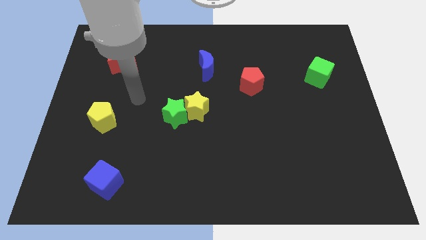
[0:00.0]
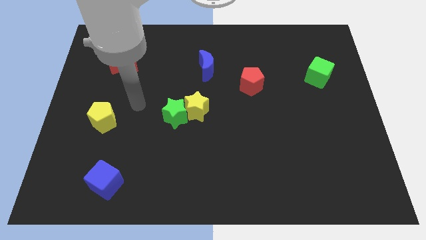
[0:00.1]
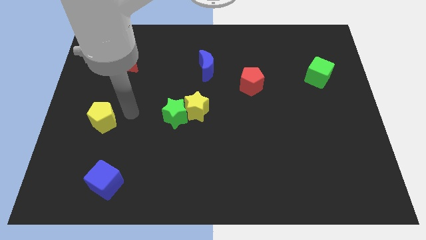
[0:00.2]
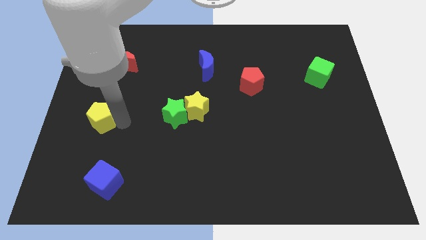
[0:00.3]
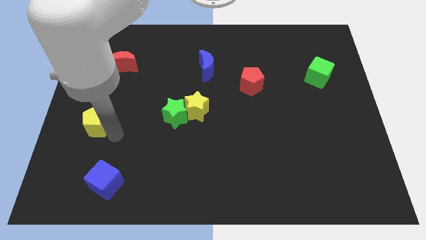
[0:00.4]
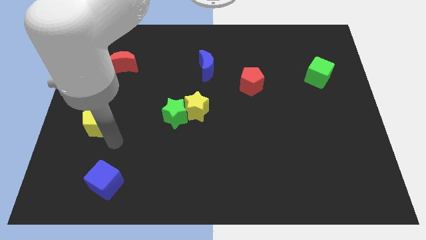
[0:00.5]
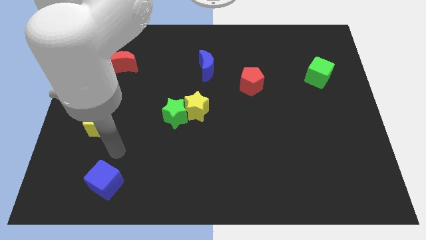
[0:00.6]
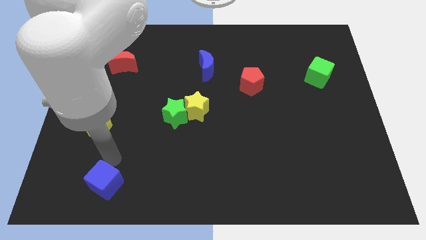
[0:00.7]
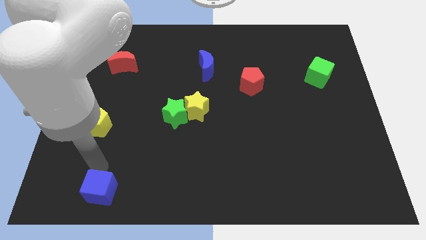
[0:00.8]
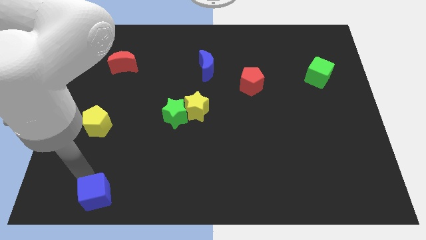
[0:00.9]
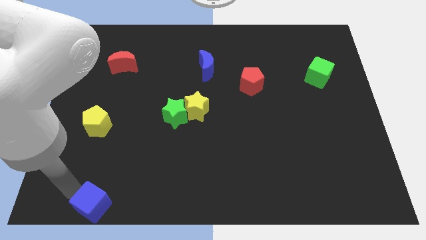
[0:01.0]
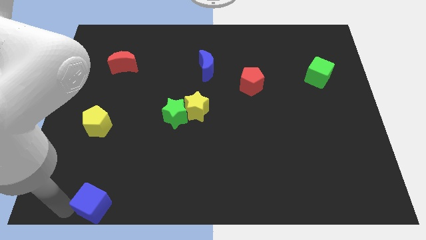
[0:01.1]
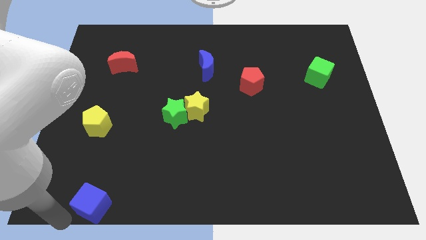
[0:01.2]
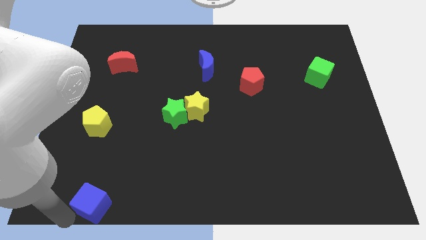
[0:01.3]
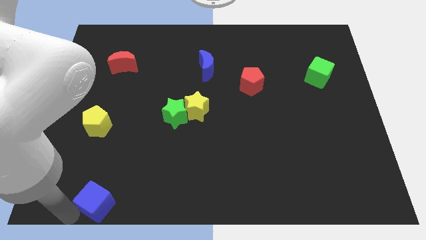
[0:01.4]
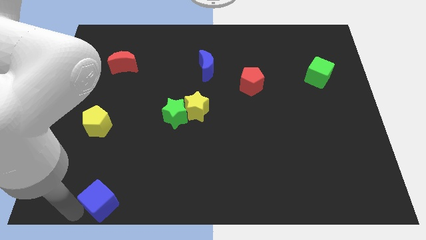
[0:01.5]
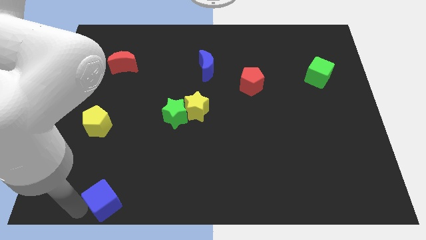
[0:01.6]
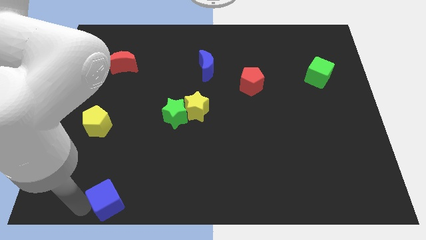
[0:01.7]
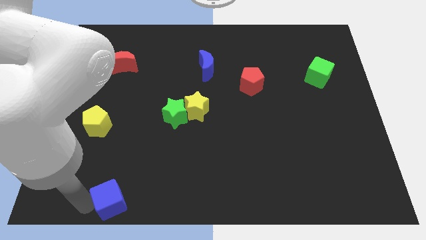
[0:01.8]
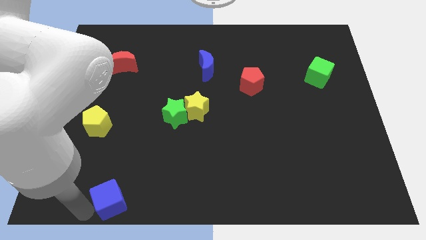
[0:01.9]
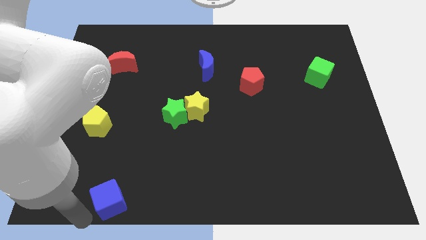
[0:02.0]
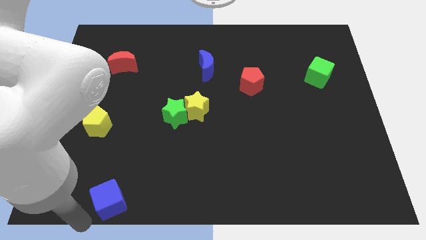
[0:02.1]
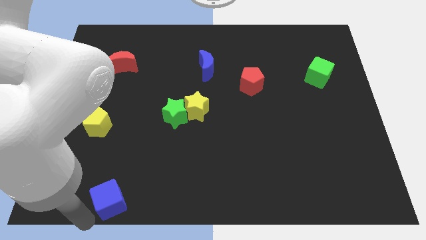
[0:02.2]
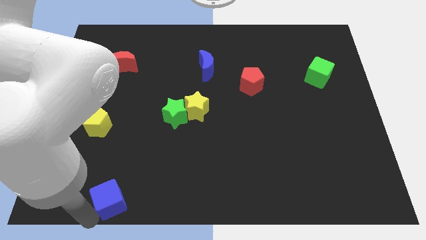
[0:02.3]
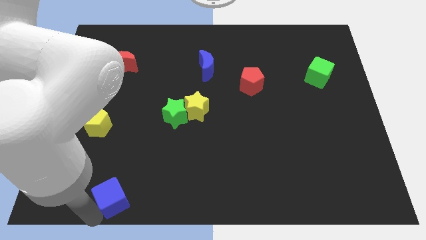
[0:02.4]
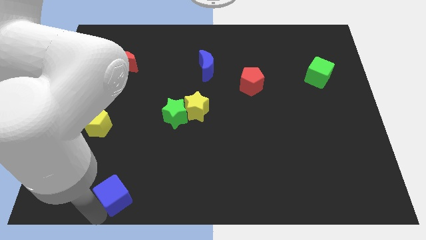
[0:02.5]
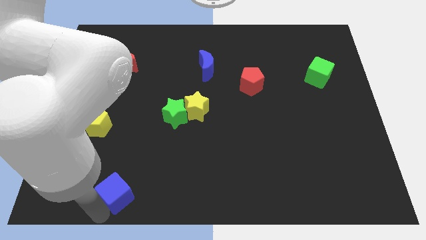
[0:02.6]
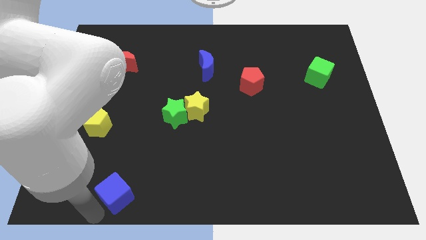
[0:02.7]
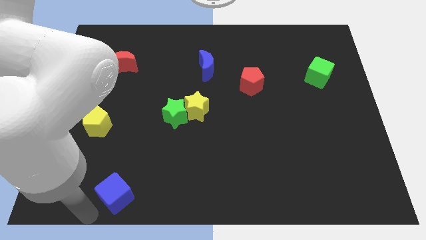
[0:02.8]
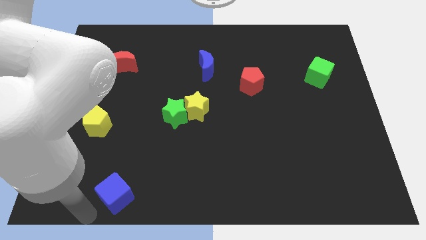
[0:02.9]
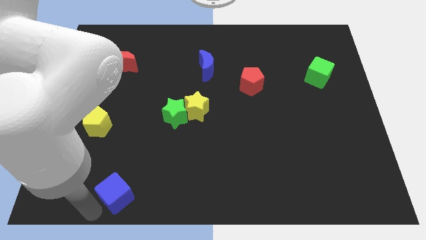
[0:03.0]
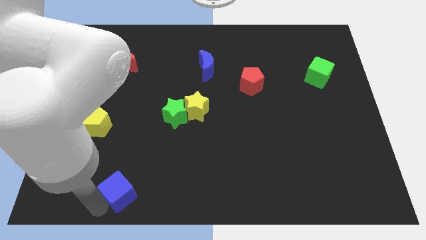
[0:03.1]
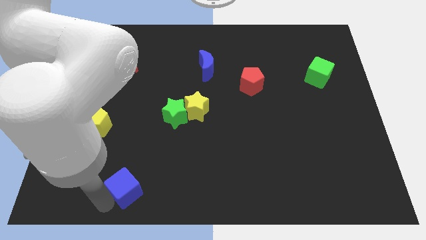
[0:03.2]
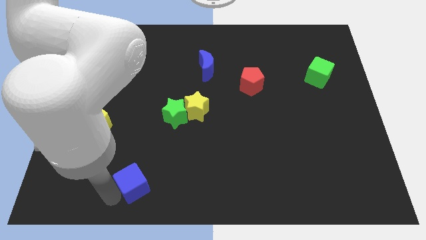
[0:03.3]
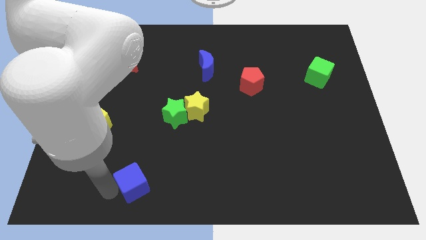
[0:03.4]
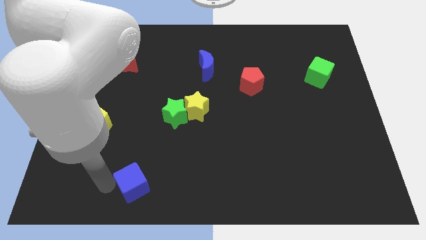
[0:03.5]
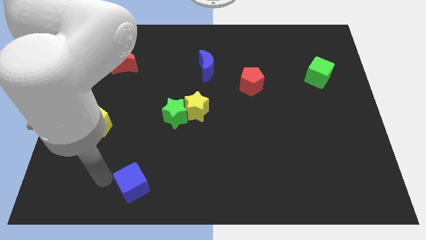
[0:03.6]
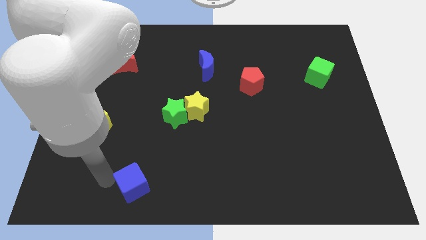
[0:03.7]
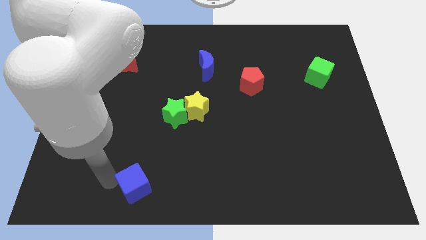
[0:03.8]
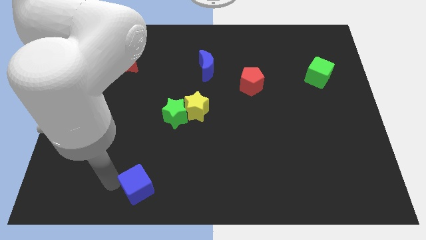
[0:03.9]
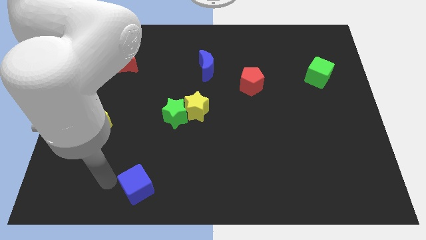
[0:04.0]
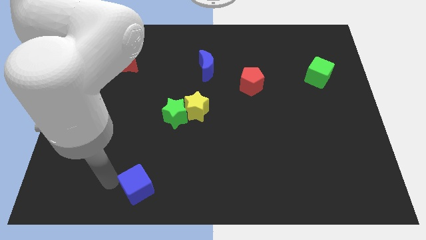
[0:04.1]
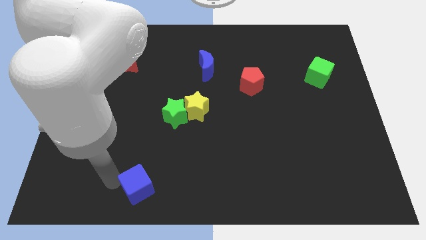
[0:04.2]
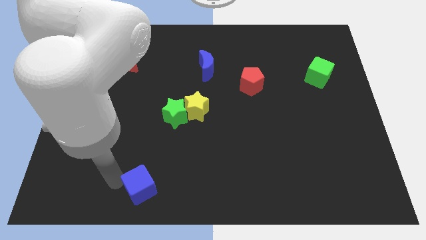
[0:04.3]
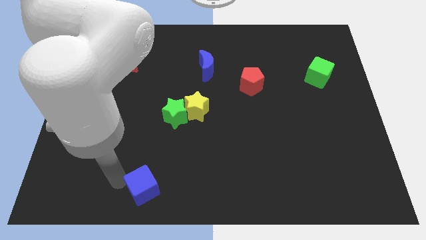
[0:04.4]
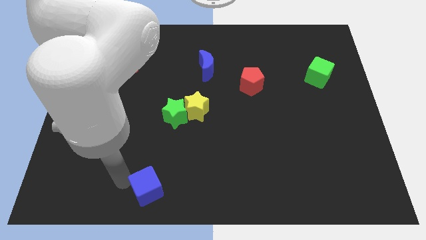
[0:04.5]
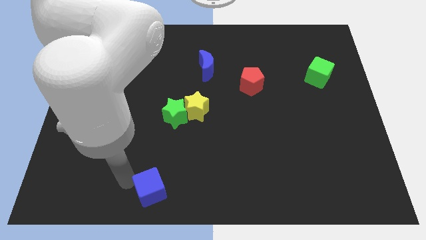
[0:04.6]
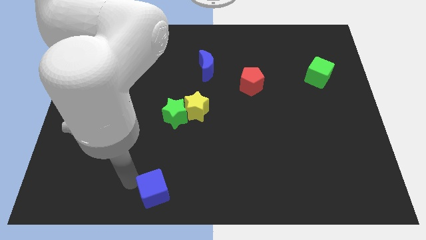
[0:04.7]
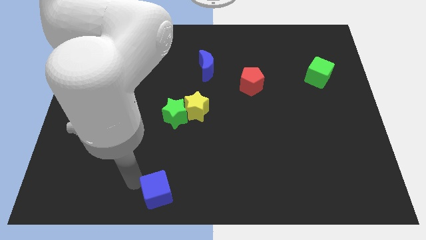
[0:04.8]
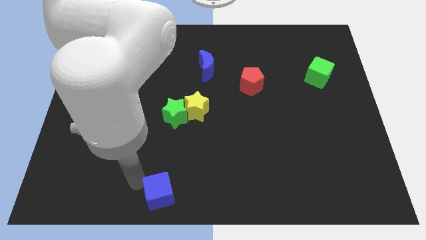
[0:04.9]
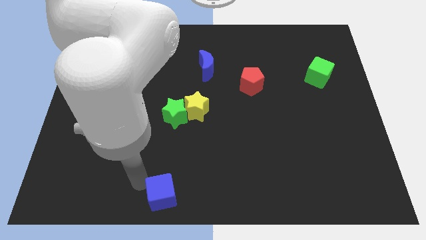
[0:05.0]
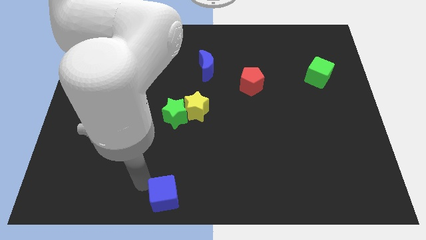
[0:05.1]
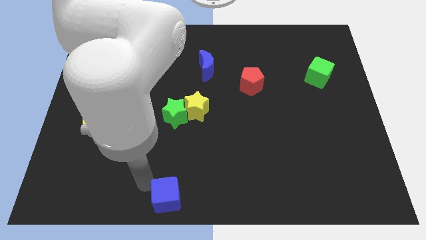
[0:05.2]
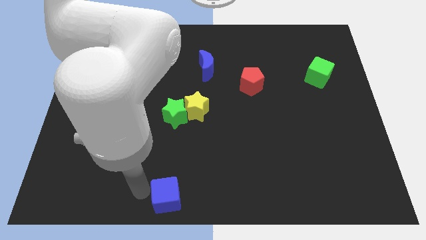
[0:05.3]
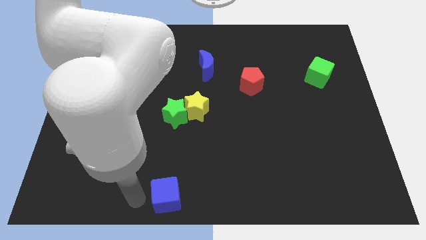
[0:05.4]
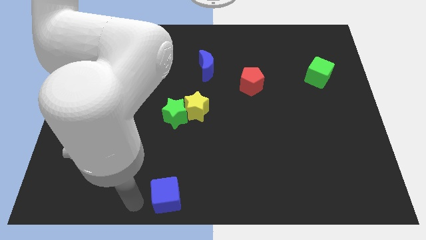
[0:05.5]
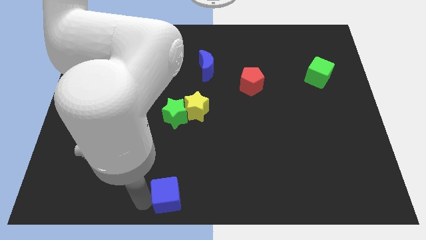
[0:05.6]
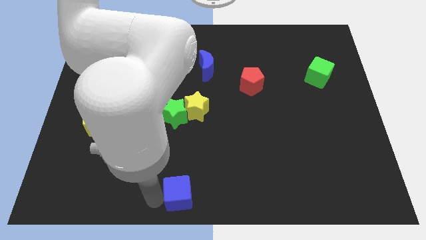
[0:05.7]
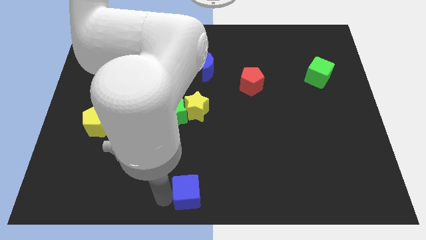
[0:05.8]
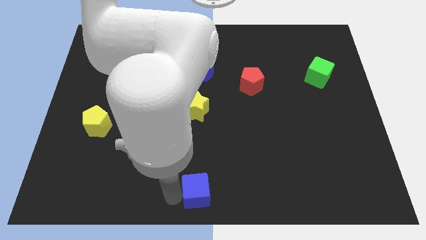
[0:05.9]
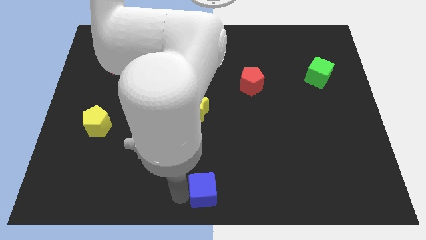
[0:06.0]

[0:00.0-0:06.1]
move the blue cube right

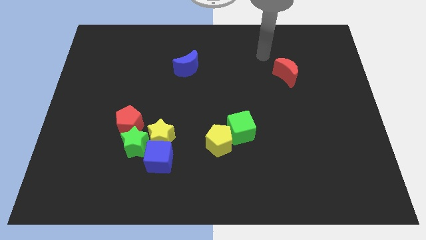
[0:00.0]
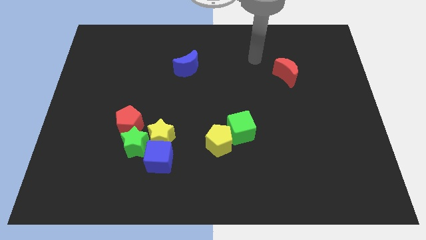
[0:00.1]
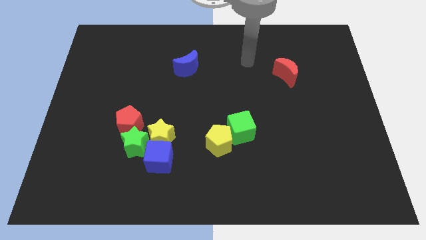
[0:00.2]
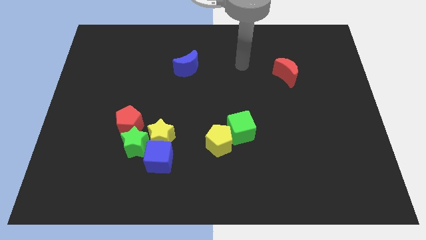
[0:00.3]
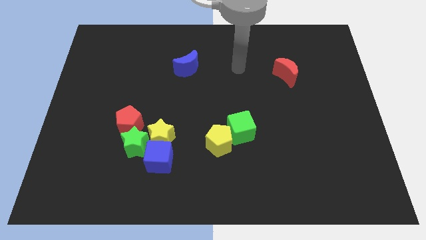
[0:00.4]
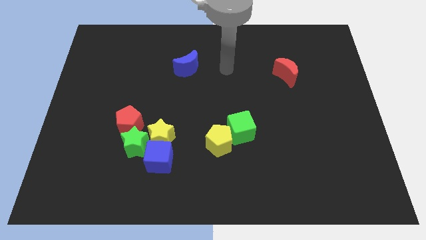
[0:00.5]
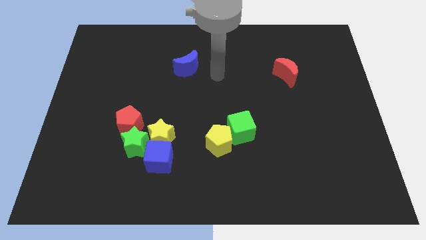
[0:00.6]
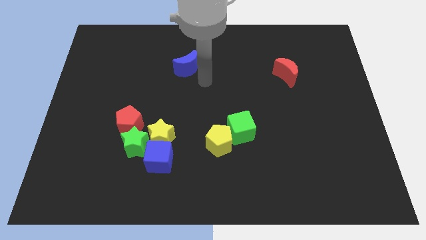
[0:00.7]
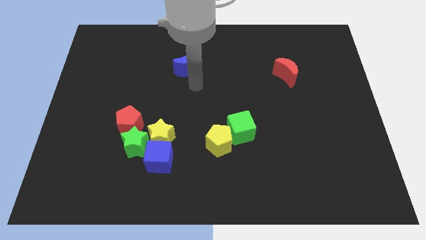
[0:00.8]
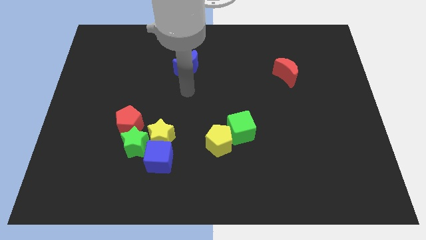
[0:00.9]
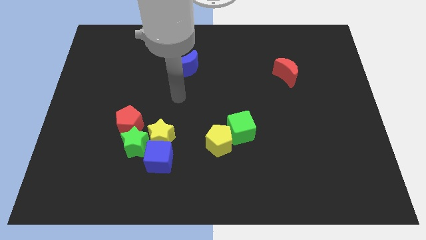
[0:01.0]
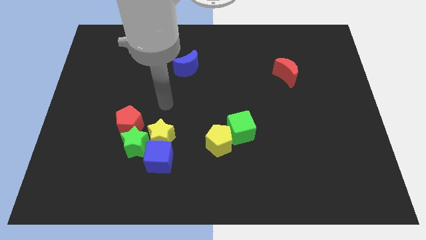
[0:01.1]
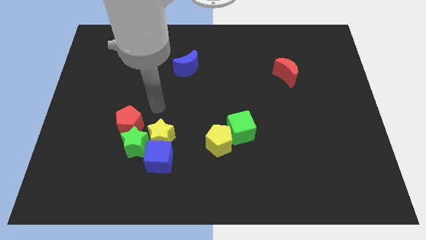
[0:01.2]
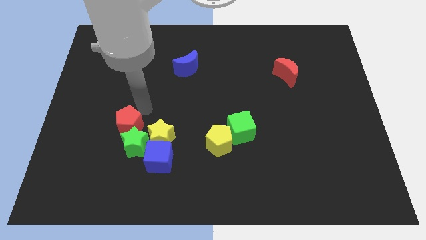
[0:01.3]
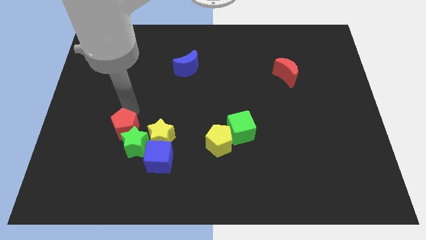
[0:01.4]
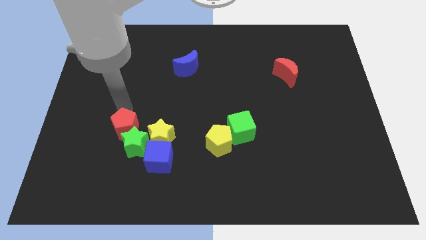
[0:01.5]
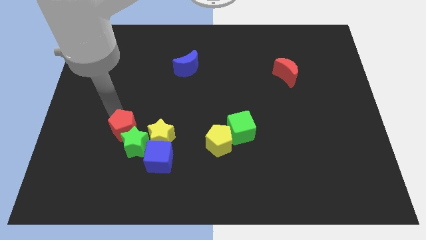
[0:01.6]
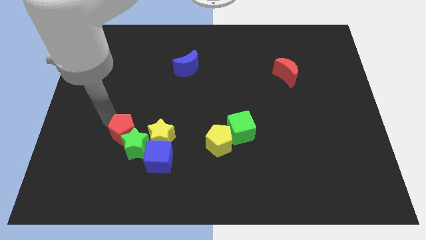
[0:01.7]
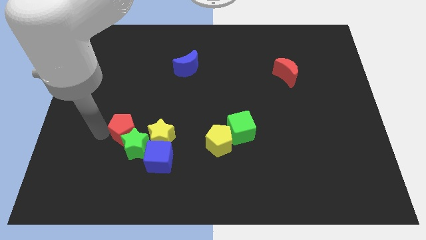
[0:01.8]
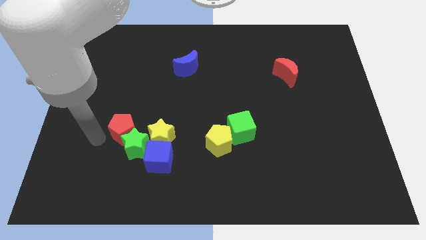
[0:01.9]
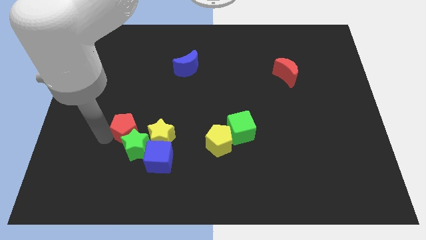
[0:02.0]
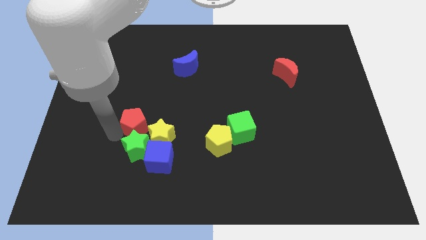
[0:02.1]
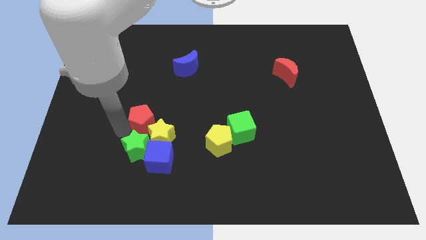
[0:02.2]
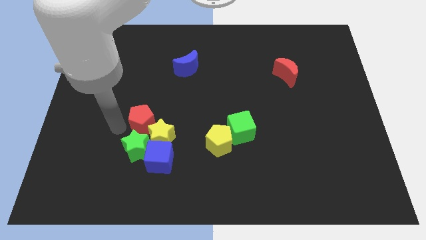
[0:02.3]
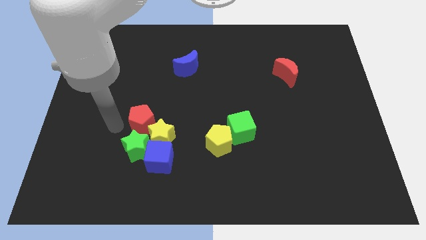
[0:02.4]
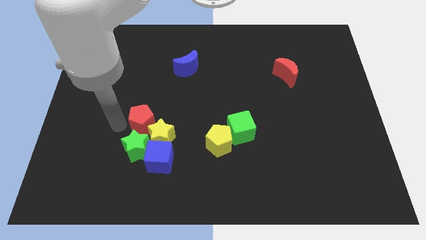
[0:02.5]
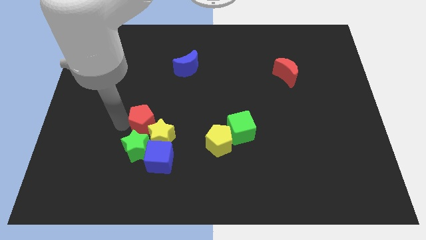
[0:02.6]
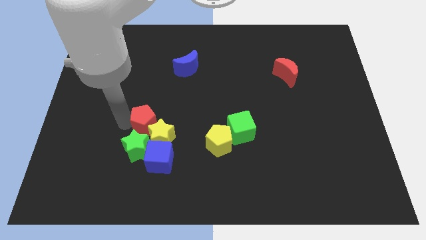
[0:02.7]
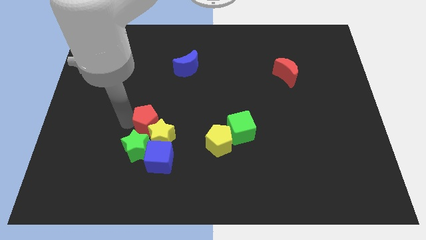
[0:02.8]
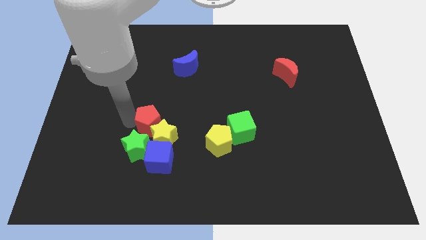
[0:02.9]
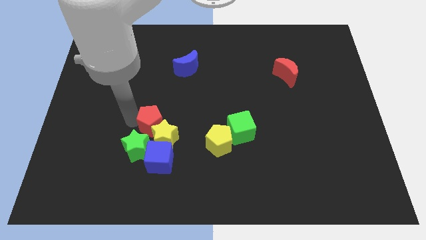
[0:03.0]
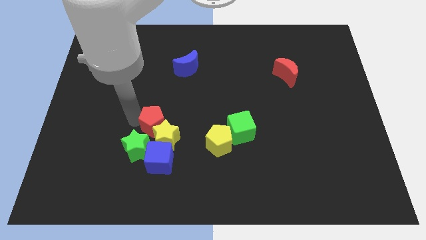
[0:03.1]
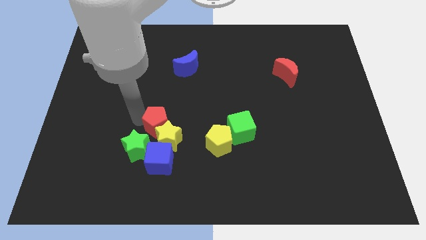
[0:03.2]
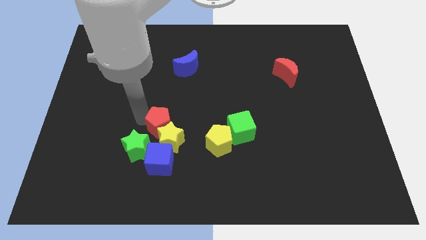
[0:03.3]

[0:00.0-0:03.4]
slightly move the red pentagon to the right
